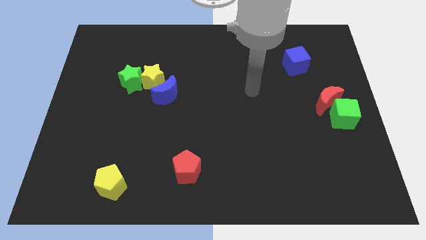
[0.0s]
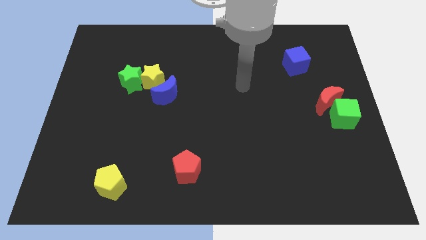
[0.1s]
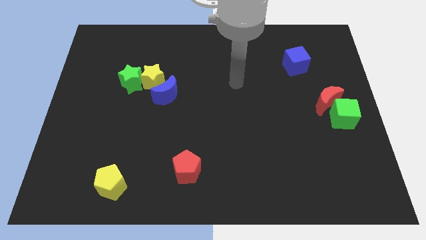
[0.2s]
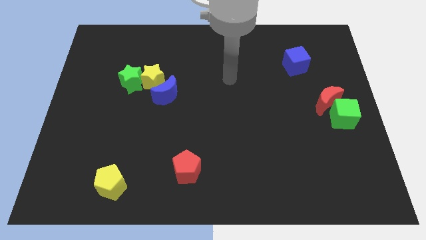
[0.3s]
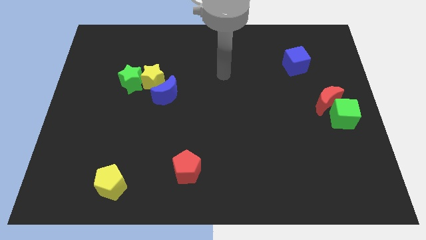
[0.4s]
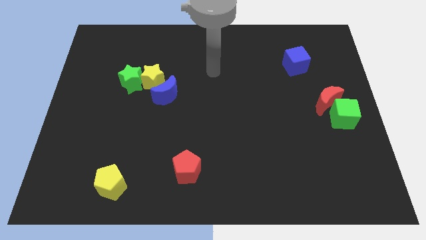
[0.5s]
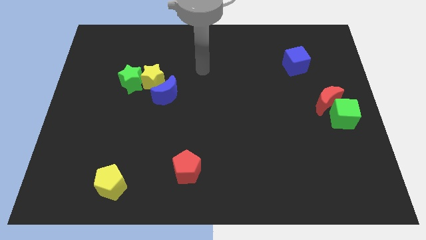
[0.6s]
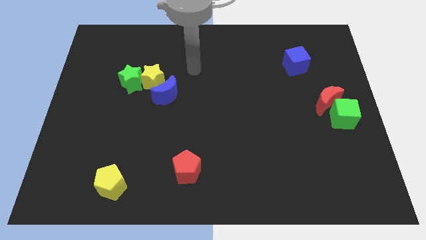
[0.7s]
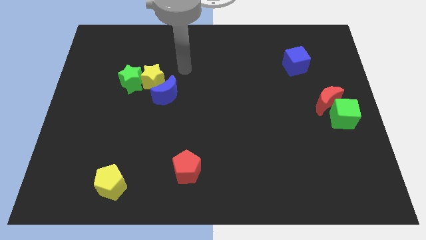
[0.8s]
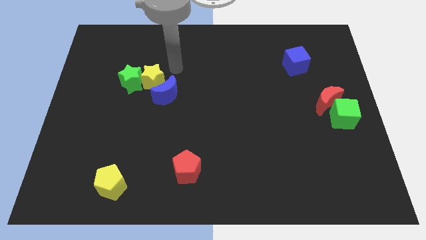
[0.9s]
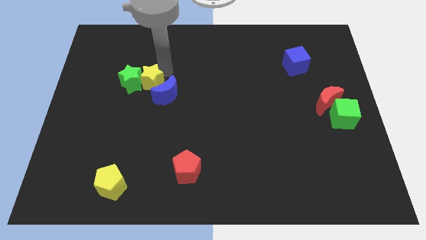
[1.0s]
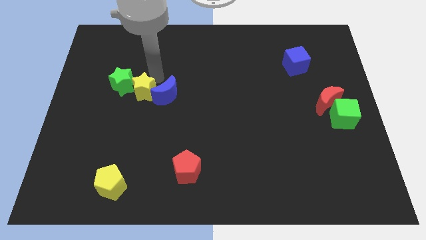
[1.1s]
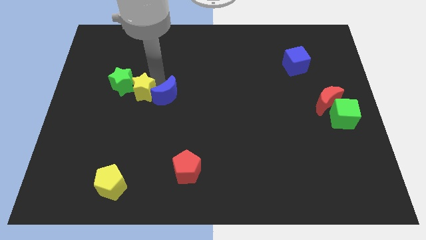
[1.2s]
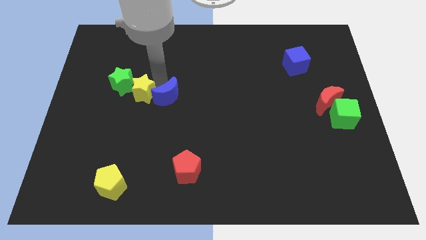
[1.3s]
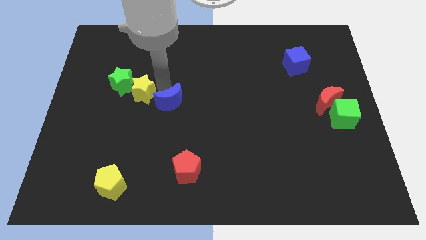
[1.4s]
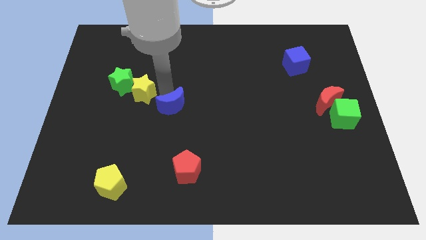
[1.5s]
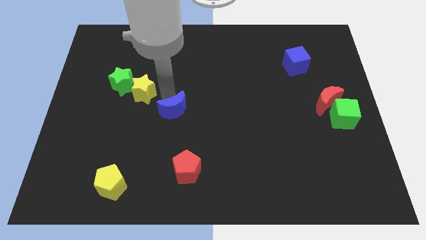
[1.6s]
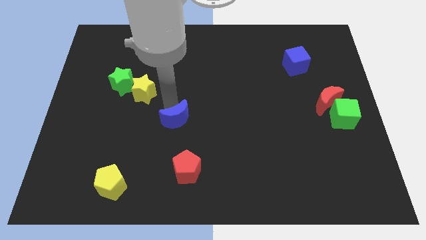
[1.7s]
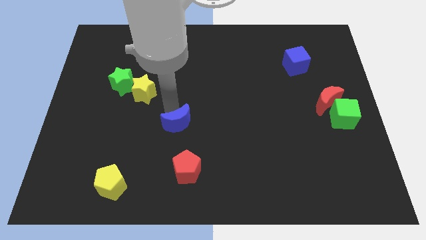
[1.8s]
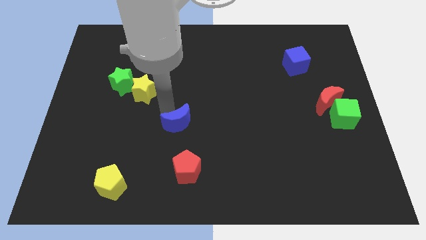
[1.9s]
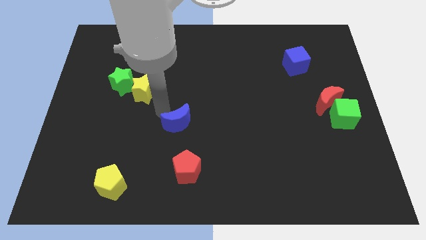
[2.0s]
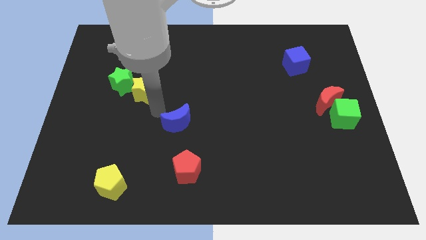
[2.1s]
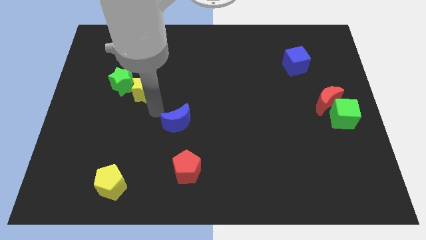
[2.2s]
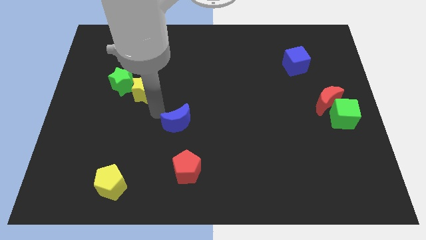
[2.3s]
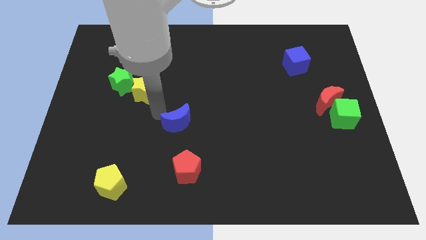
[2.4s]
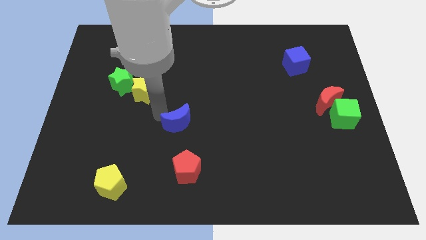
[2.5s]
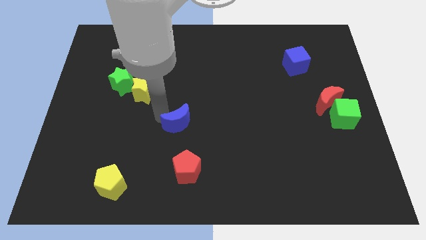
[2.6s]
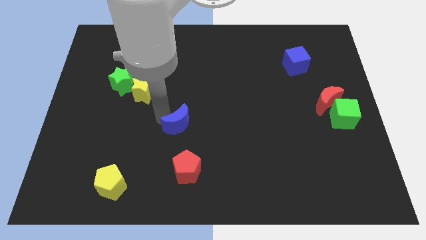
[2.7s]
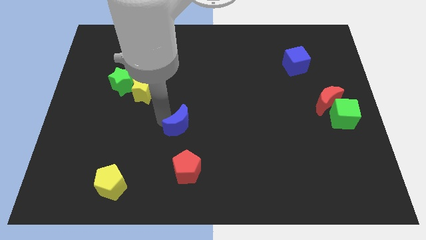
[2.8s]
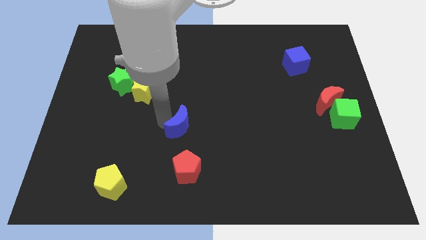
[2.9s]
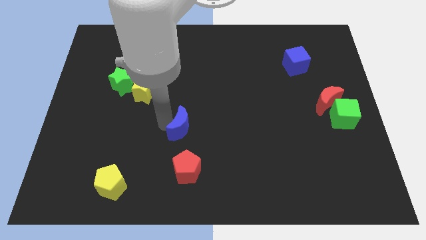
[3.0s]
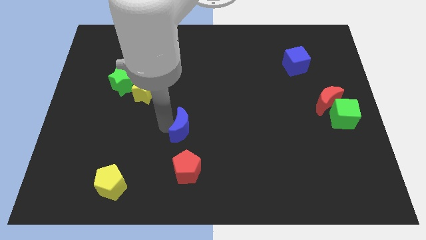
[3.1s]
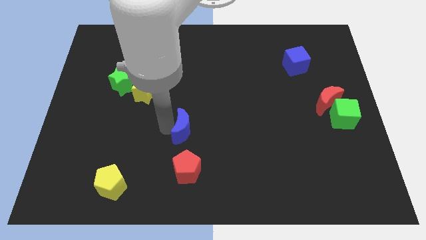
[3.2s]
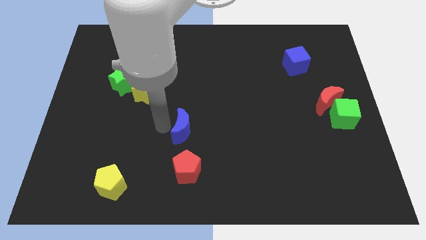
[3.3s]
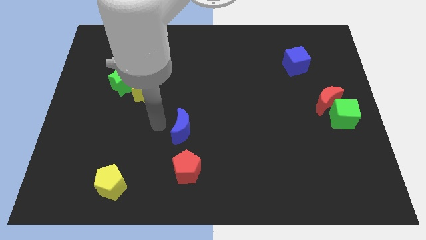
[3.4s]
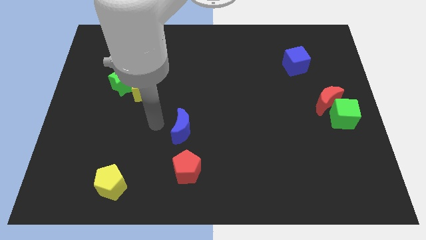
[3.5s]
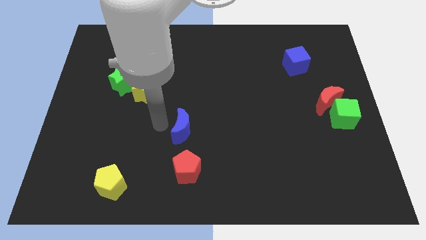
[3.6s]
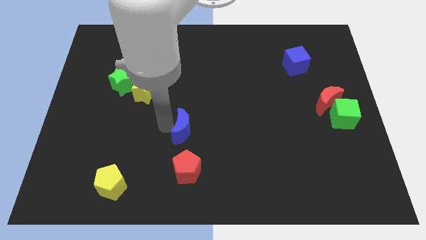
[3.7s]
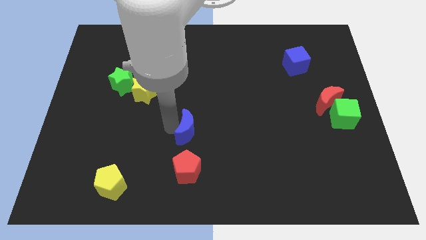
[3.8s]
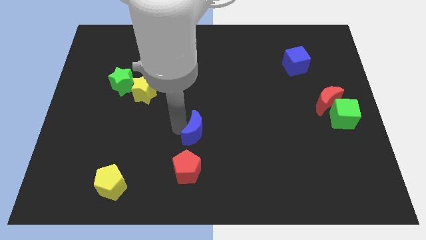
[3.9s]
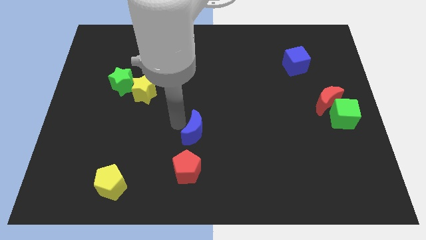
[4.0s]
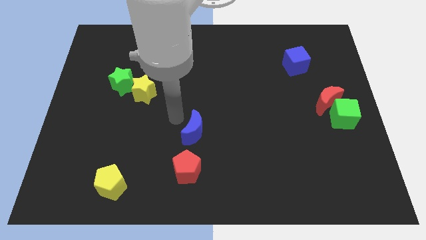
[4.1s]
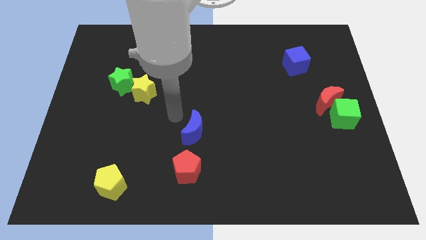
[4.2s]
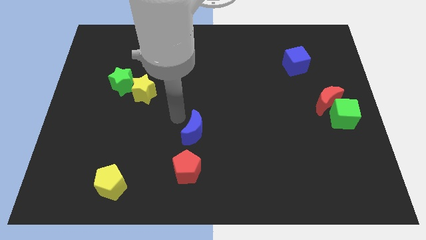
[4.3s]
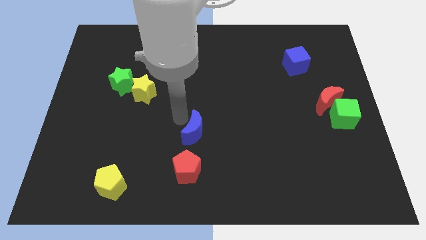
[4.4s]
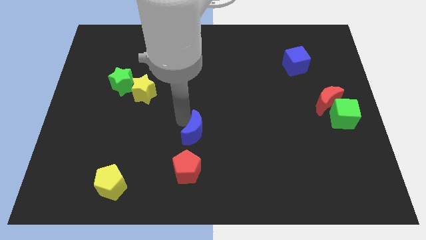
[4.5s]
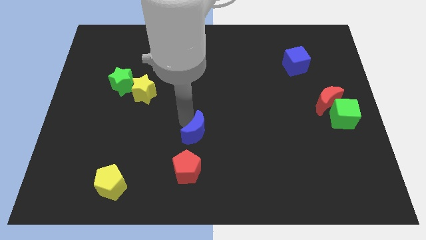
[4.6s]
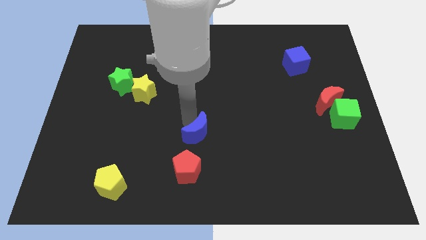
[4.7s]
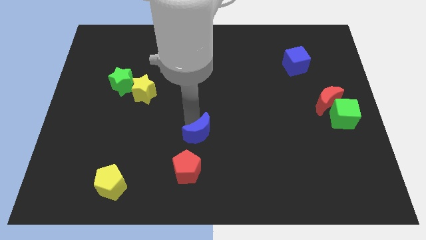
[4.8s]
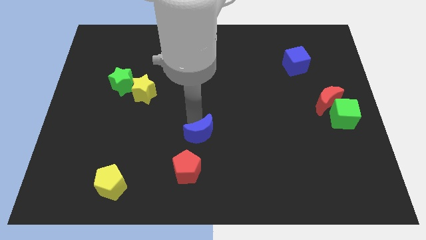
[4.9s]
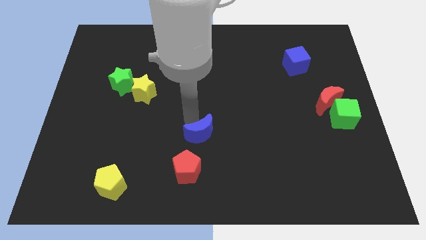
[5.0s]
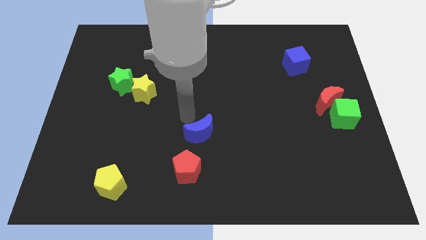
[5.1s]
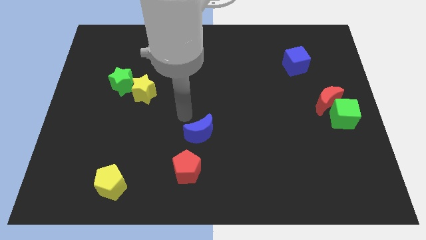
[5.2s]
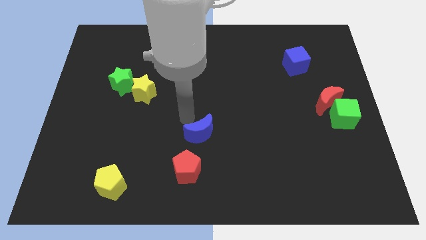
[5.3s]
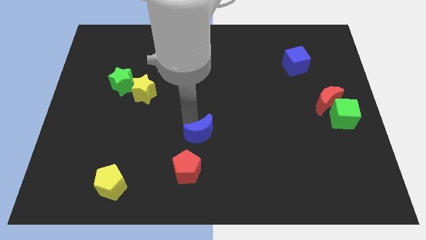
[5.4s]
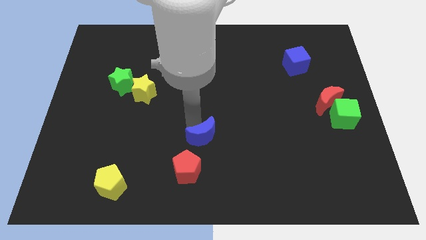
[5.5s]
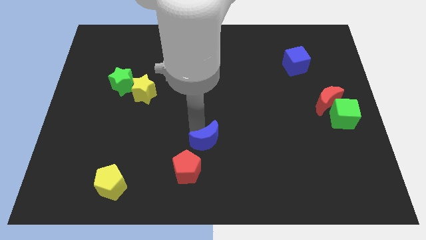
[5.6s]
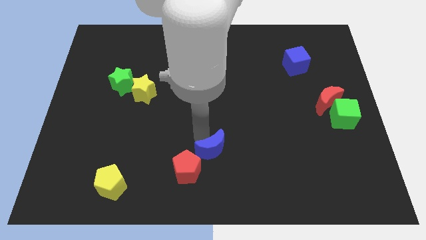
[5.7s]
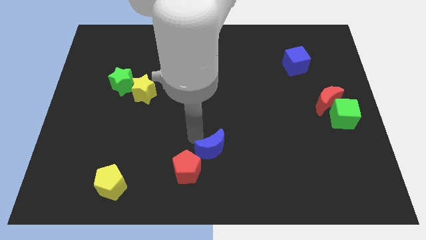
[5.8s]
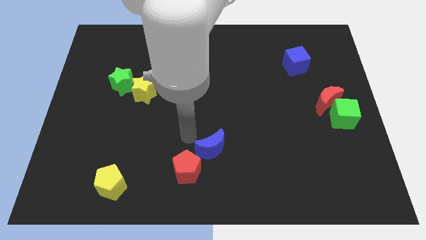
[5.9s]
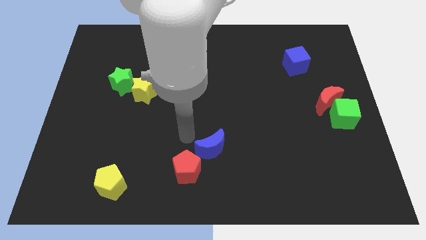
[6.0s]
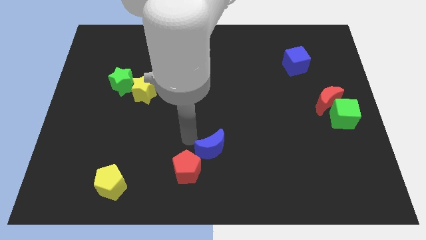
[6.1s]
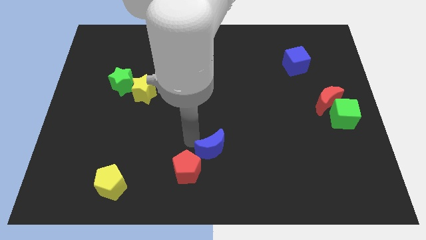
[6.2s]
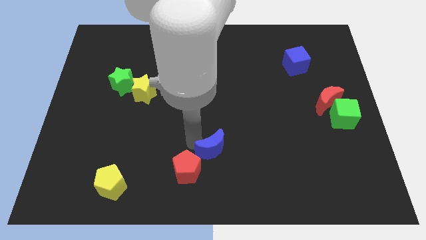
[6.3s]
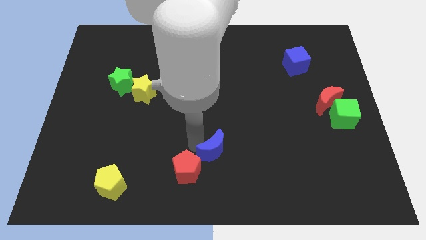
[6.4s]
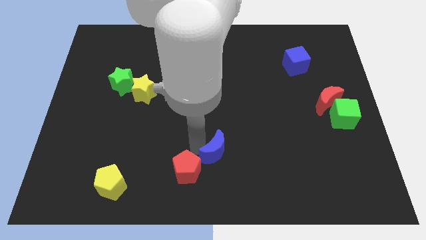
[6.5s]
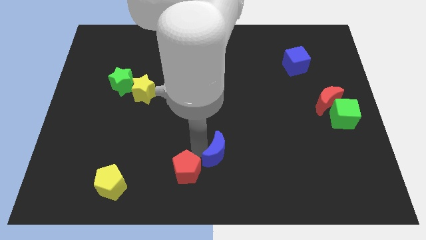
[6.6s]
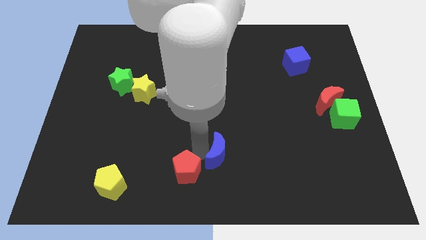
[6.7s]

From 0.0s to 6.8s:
push the blue moon downwards and right

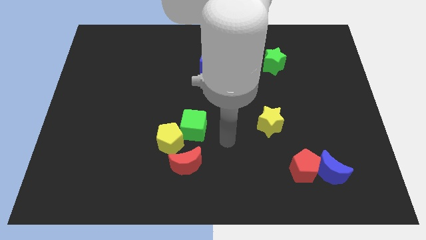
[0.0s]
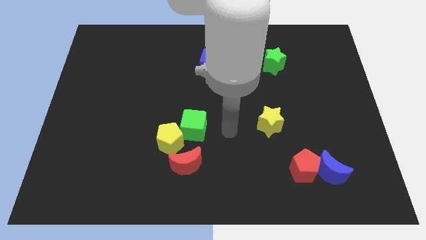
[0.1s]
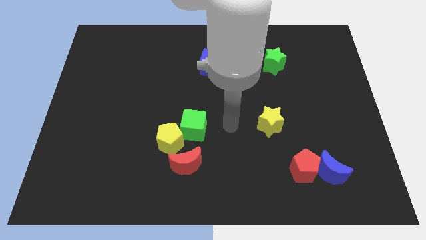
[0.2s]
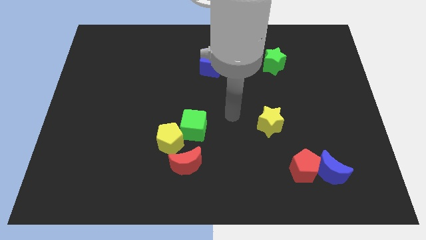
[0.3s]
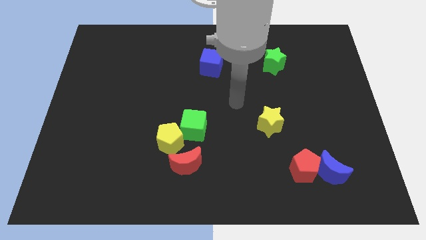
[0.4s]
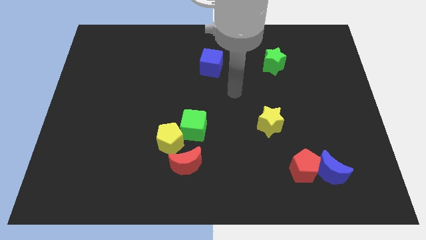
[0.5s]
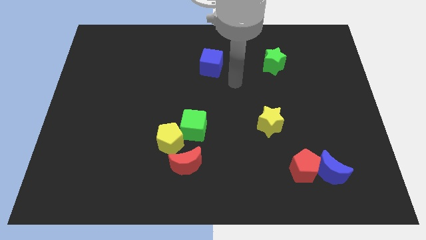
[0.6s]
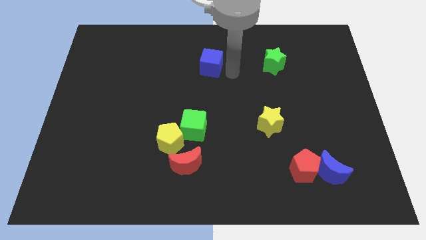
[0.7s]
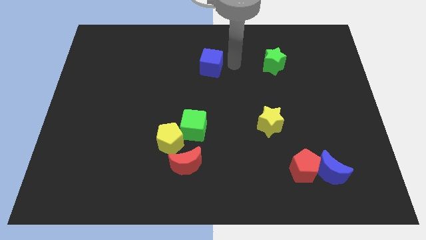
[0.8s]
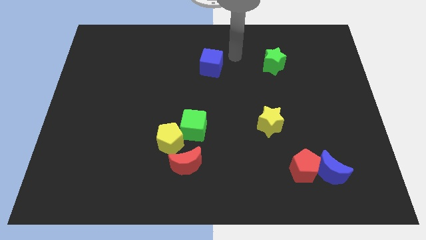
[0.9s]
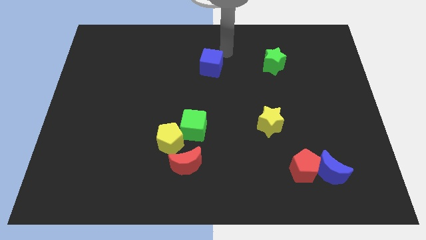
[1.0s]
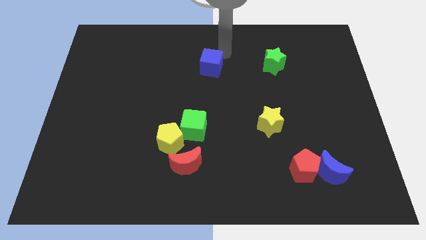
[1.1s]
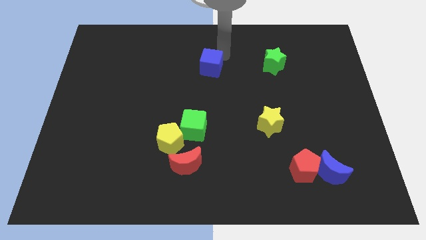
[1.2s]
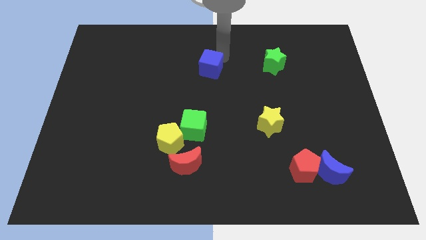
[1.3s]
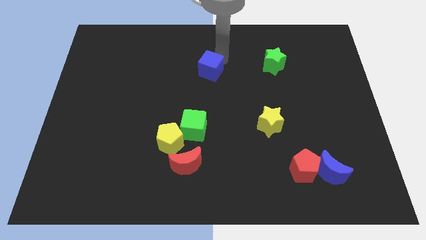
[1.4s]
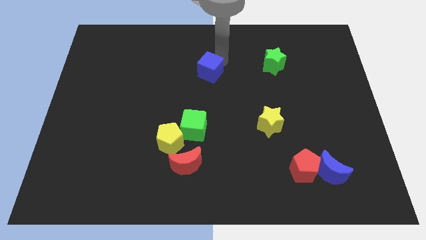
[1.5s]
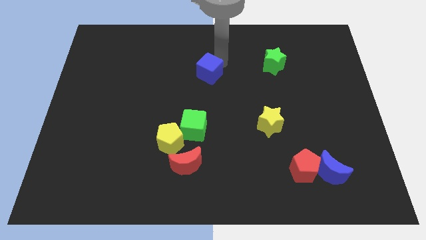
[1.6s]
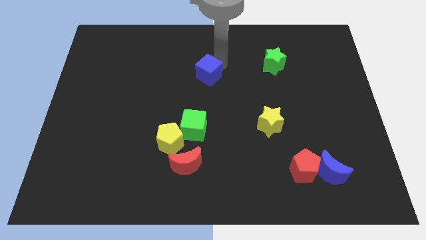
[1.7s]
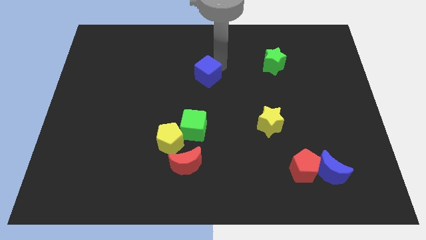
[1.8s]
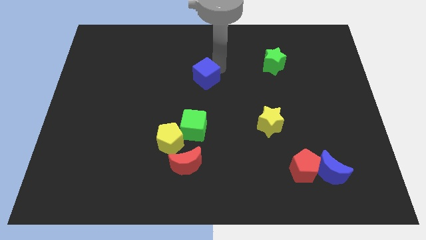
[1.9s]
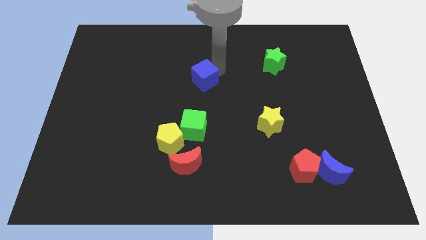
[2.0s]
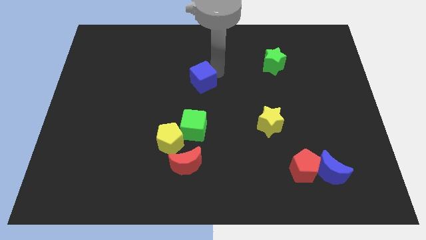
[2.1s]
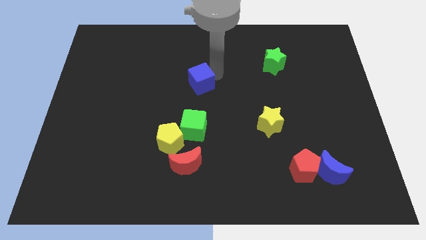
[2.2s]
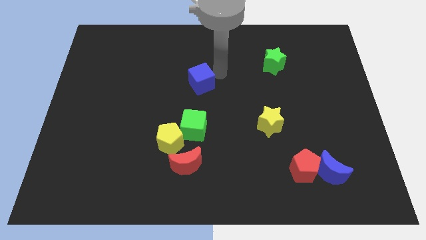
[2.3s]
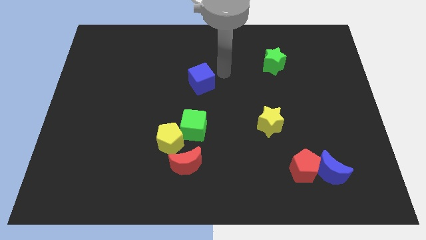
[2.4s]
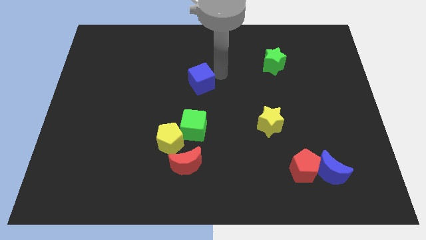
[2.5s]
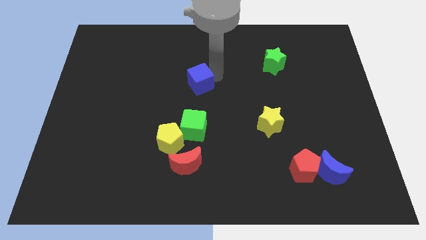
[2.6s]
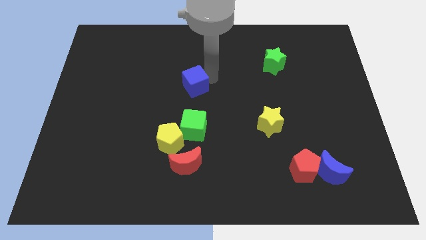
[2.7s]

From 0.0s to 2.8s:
push the blue cube down and then to the left somewhat
